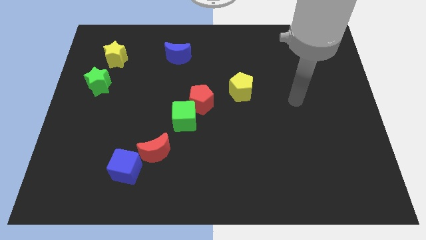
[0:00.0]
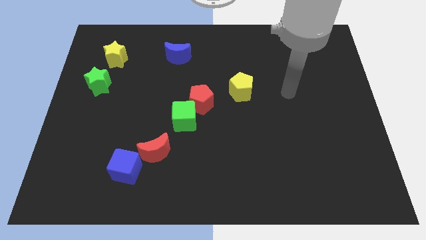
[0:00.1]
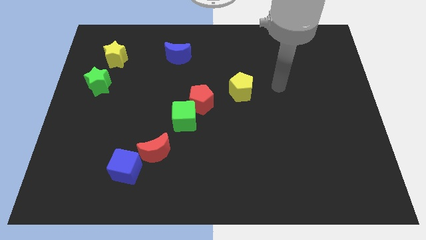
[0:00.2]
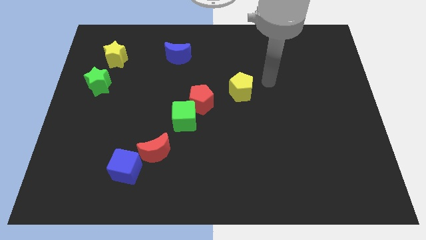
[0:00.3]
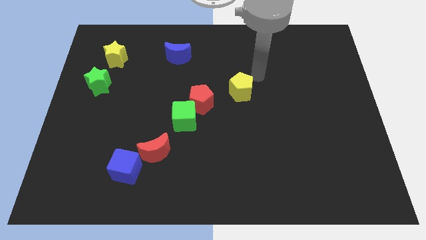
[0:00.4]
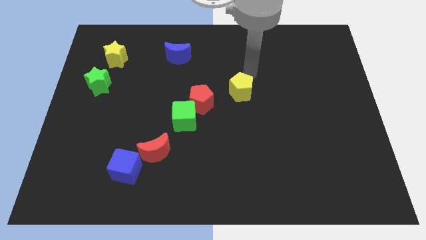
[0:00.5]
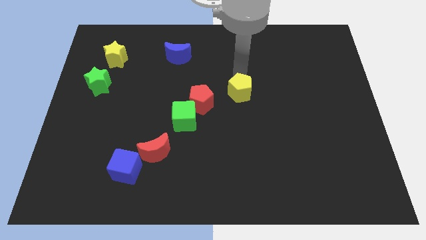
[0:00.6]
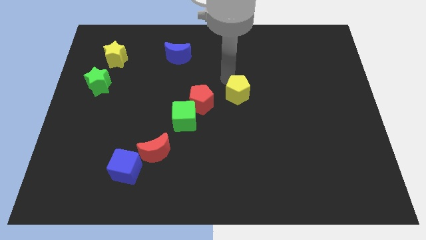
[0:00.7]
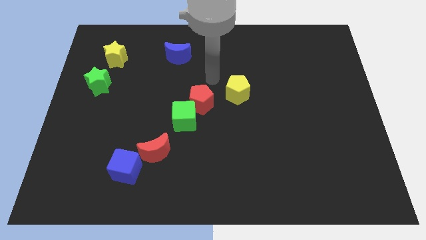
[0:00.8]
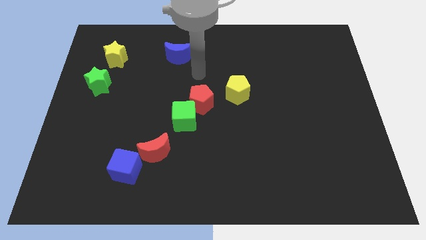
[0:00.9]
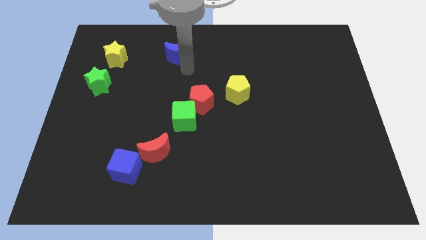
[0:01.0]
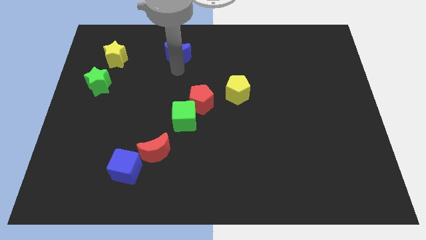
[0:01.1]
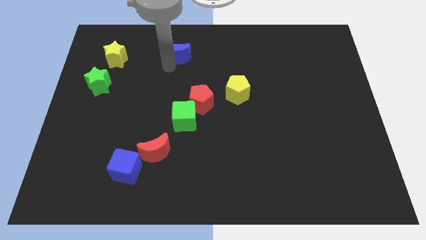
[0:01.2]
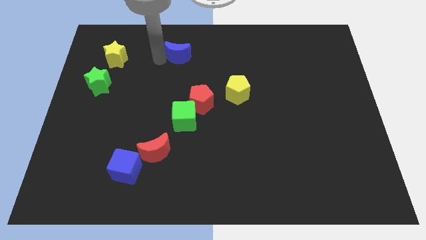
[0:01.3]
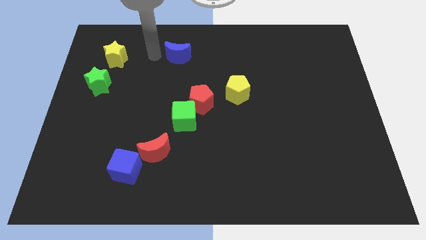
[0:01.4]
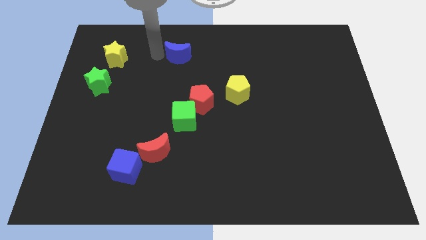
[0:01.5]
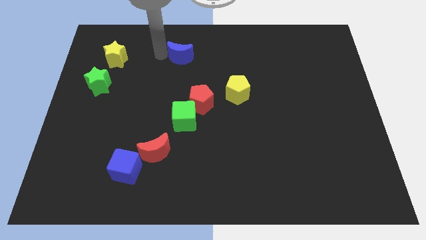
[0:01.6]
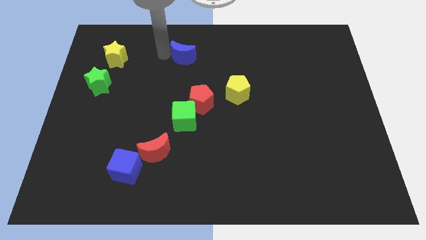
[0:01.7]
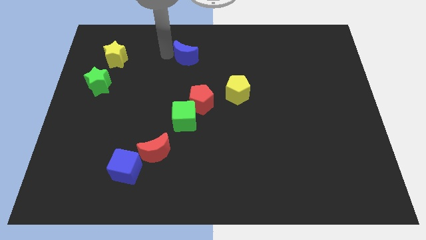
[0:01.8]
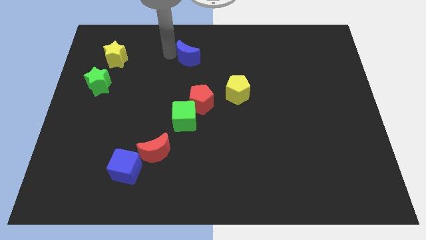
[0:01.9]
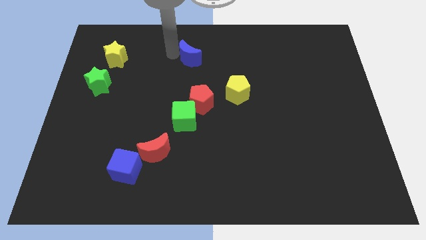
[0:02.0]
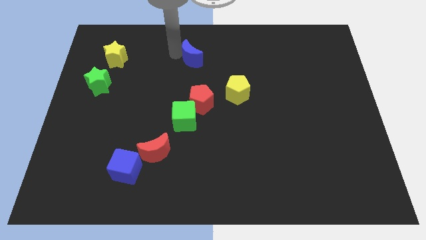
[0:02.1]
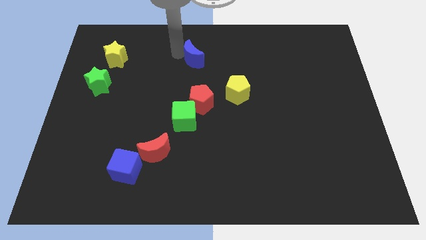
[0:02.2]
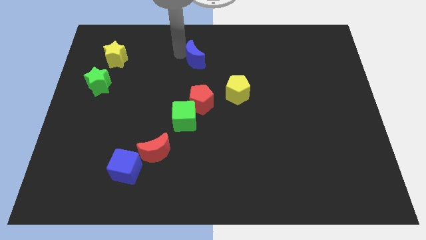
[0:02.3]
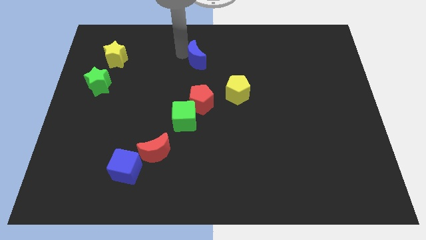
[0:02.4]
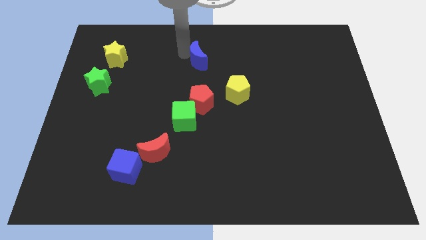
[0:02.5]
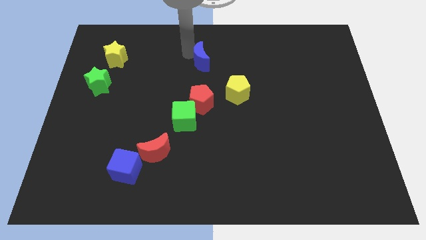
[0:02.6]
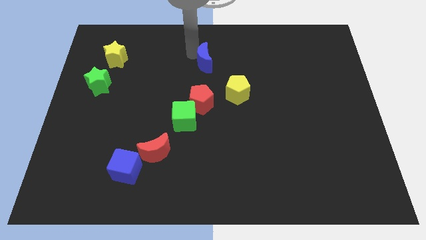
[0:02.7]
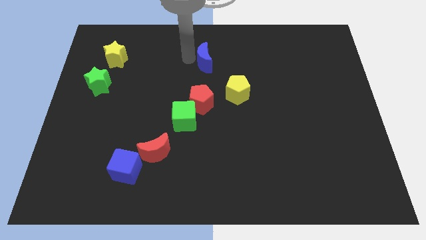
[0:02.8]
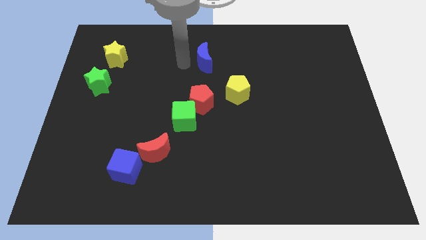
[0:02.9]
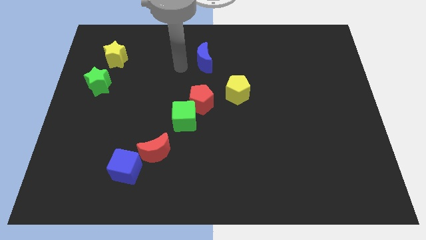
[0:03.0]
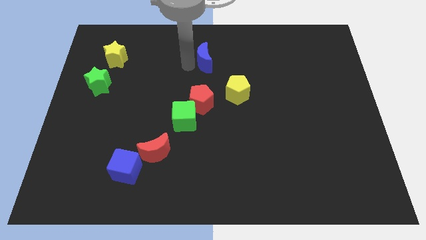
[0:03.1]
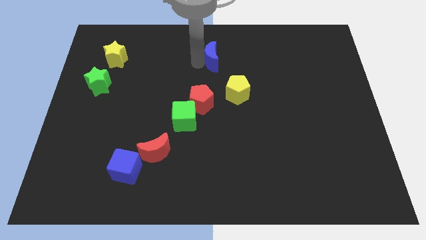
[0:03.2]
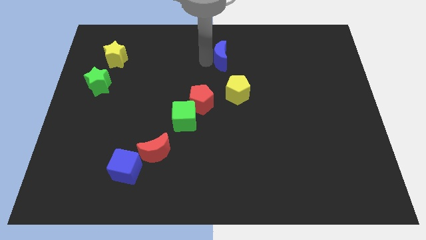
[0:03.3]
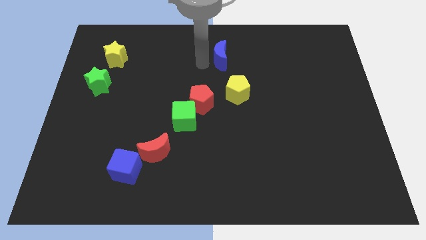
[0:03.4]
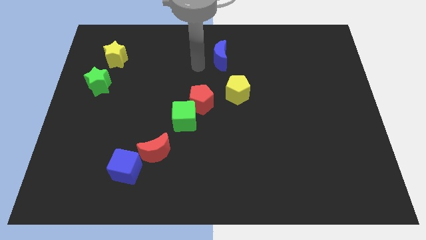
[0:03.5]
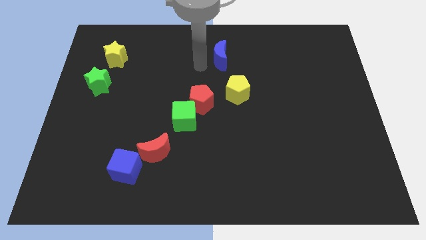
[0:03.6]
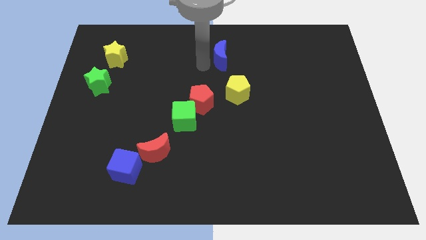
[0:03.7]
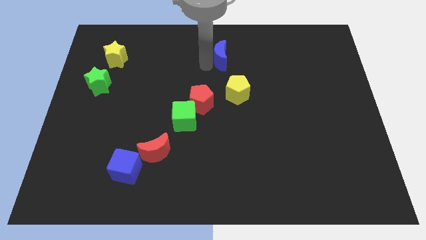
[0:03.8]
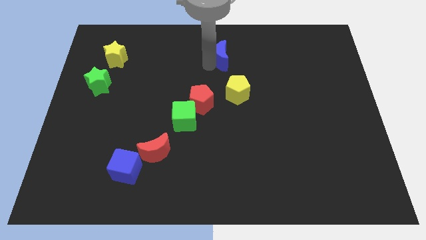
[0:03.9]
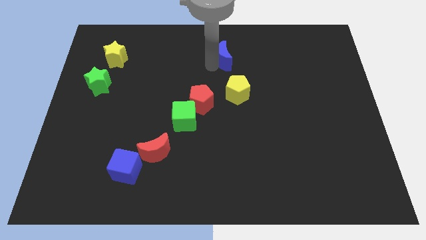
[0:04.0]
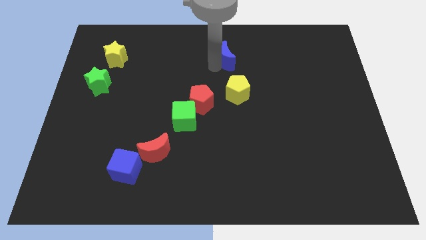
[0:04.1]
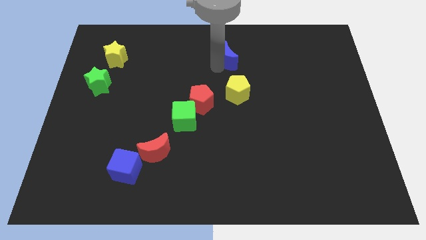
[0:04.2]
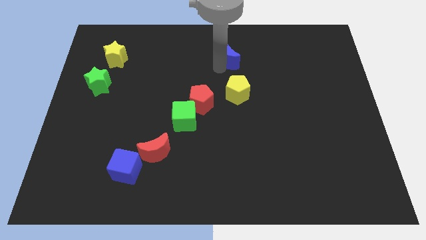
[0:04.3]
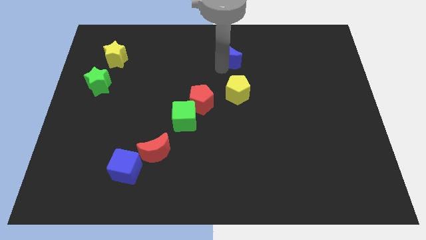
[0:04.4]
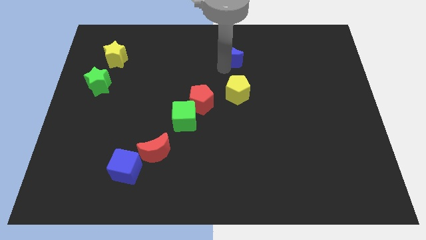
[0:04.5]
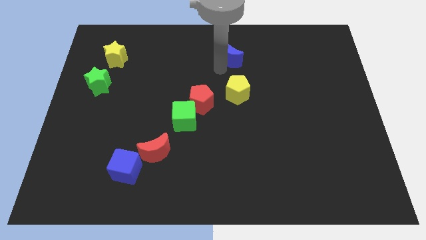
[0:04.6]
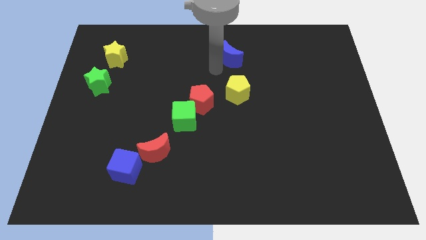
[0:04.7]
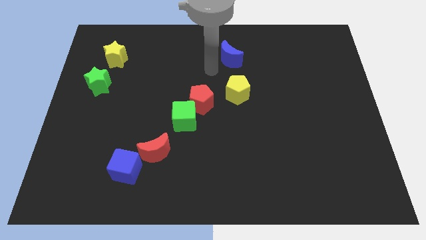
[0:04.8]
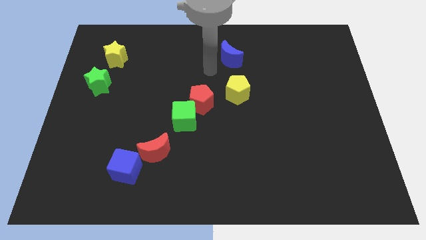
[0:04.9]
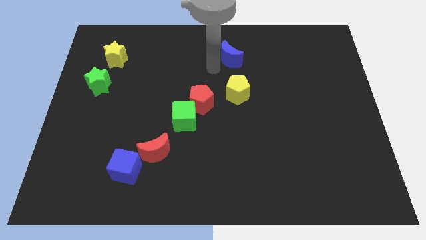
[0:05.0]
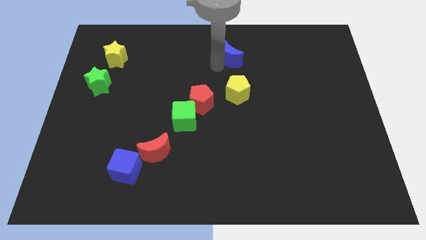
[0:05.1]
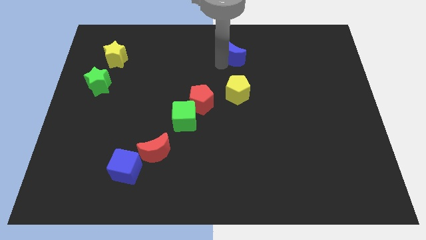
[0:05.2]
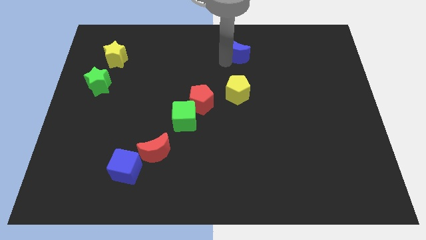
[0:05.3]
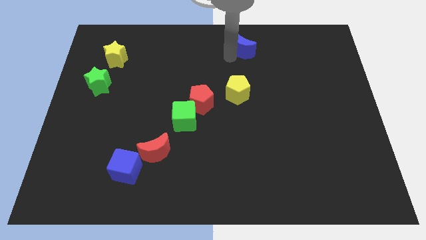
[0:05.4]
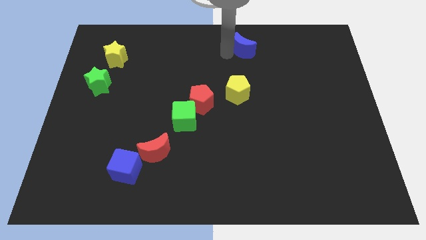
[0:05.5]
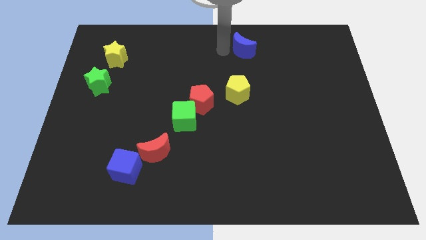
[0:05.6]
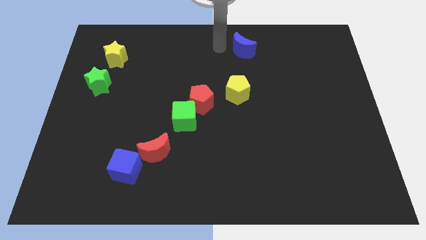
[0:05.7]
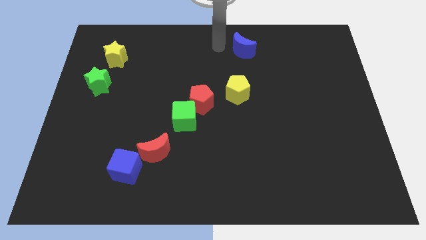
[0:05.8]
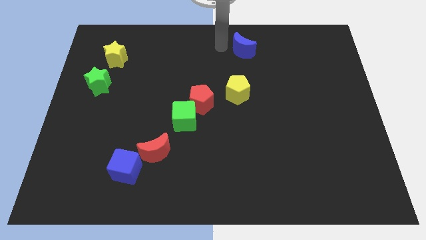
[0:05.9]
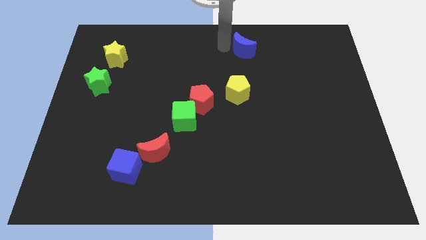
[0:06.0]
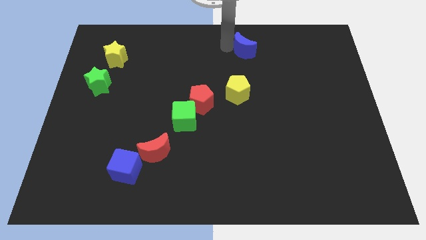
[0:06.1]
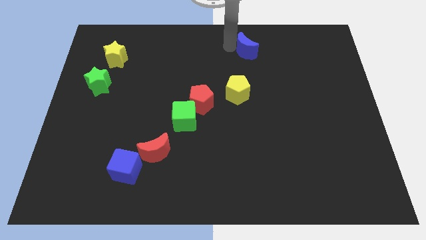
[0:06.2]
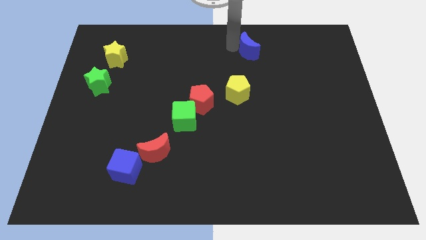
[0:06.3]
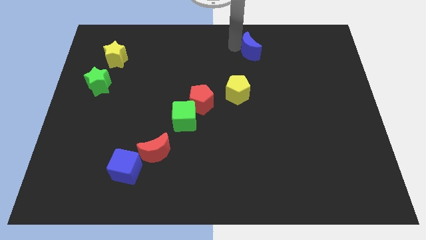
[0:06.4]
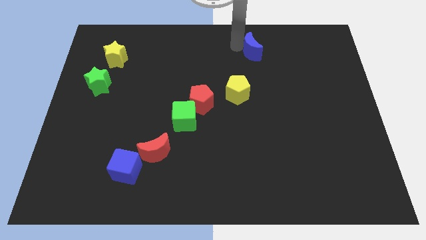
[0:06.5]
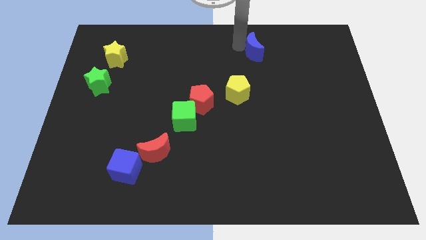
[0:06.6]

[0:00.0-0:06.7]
push the blue moon to the right

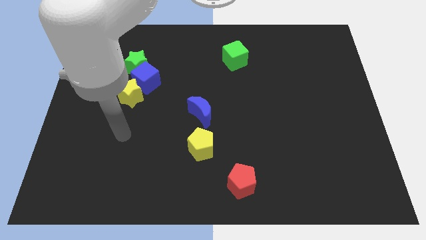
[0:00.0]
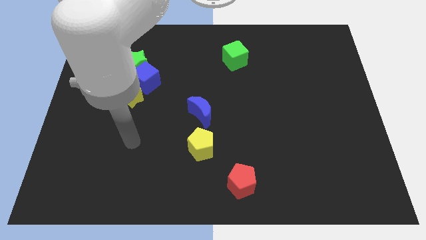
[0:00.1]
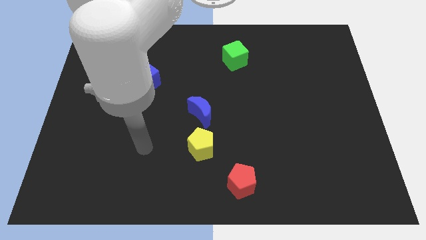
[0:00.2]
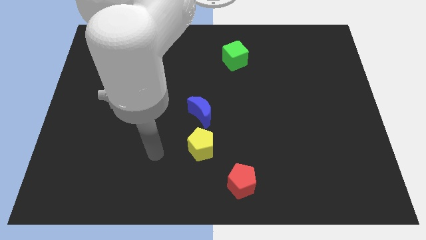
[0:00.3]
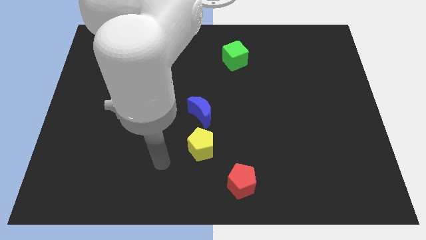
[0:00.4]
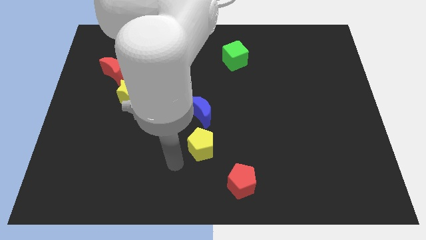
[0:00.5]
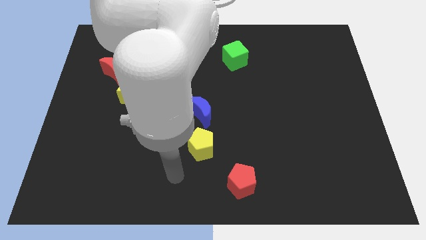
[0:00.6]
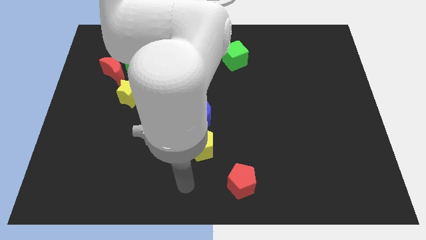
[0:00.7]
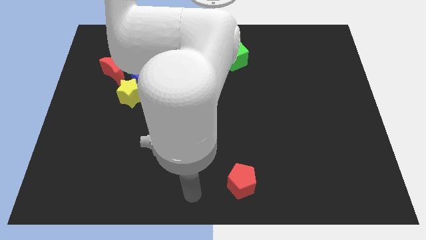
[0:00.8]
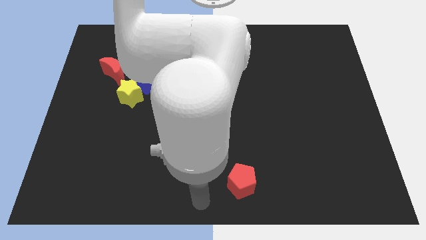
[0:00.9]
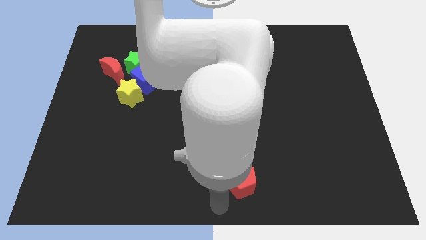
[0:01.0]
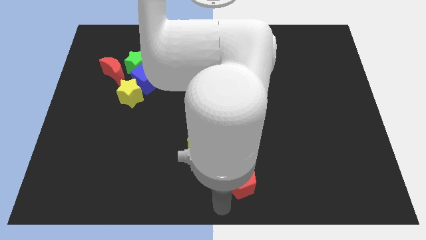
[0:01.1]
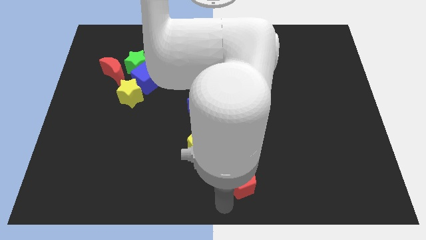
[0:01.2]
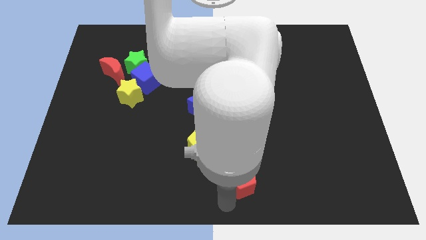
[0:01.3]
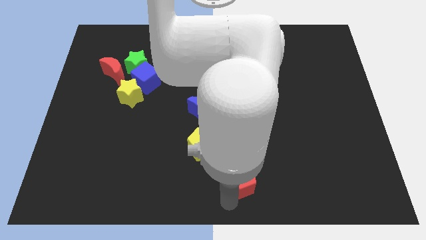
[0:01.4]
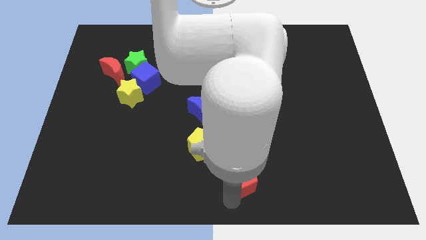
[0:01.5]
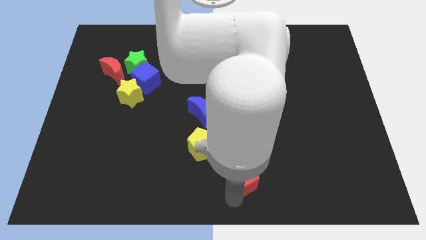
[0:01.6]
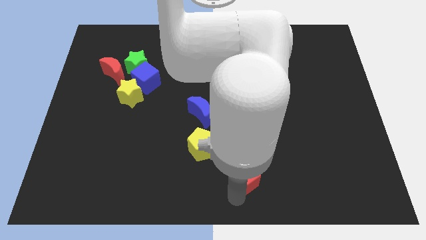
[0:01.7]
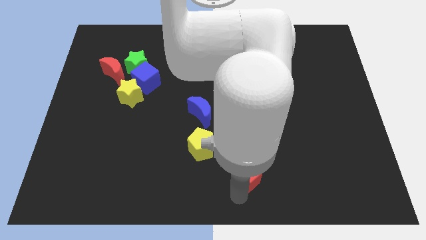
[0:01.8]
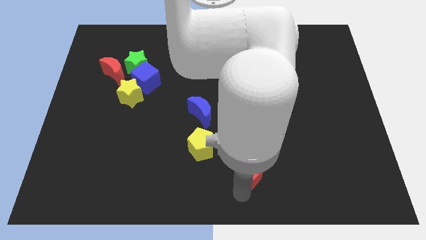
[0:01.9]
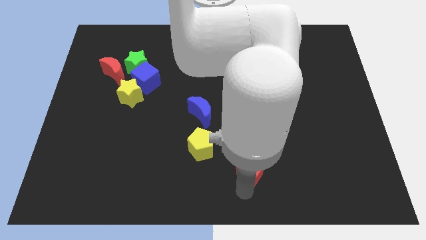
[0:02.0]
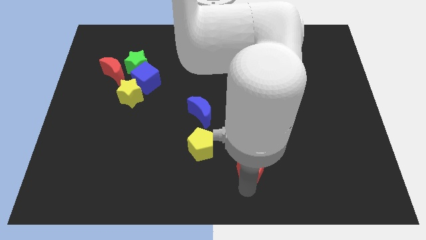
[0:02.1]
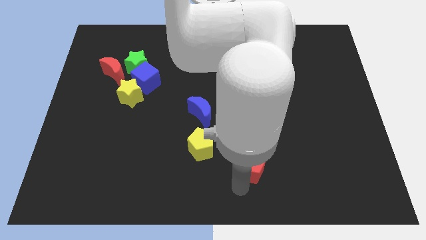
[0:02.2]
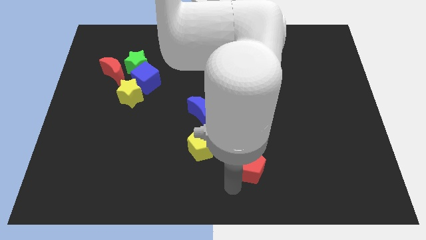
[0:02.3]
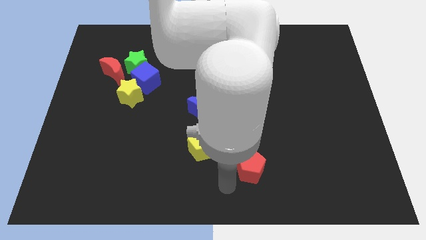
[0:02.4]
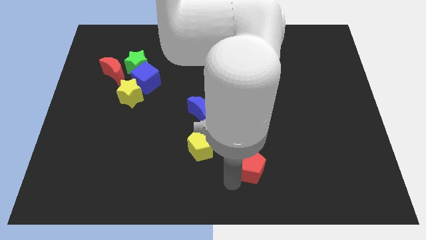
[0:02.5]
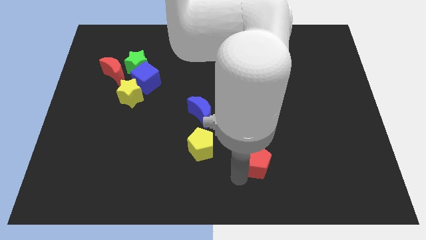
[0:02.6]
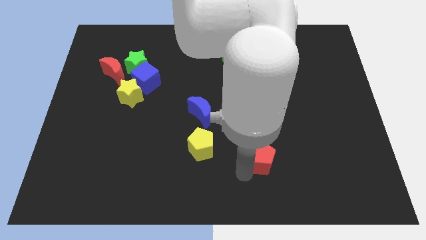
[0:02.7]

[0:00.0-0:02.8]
push the red pentagon a little bit up and to the right
